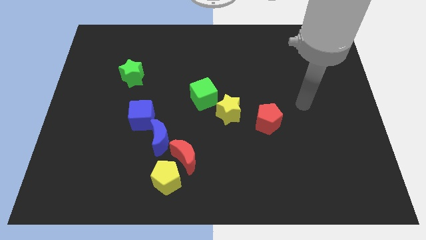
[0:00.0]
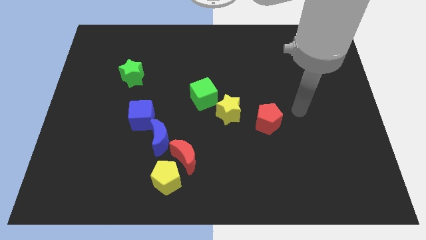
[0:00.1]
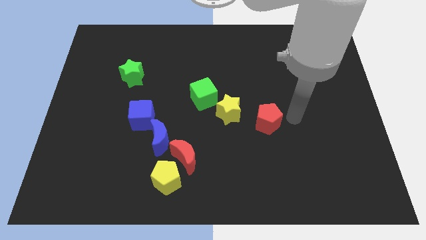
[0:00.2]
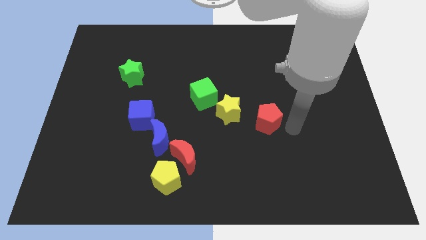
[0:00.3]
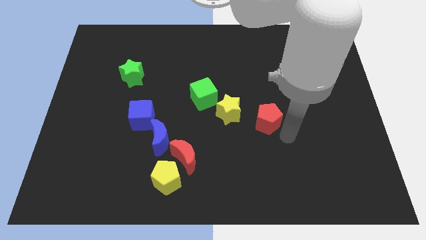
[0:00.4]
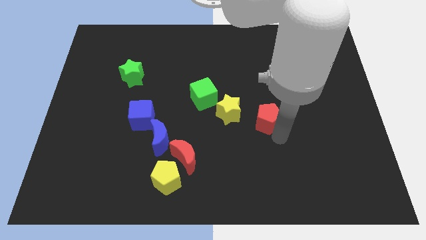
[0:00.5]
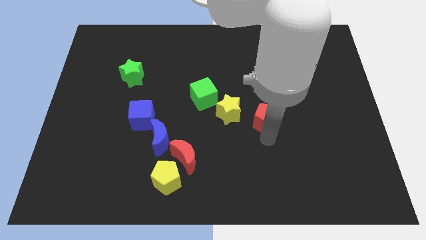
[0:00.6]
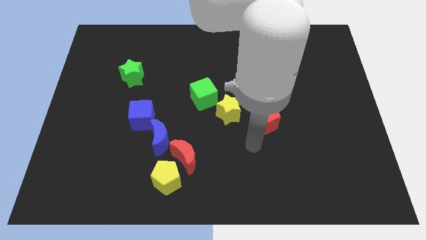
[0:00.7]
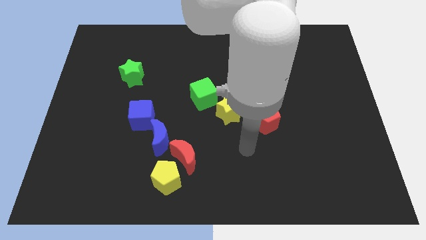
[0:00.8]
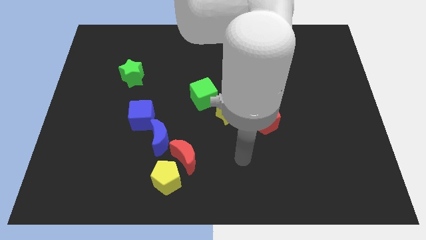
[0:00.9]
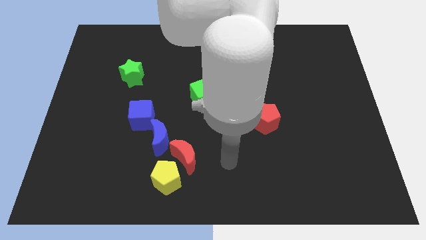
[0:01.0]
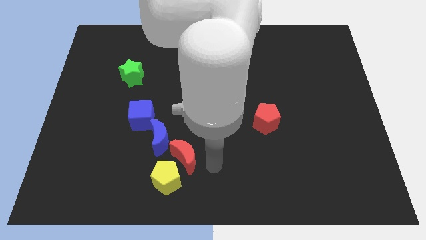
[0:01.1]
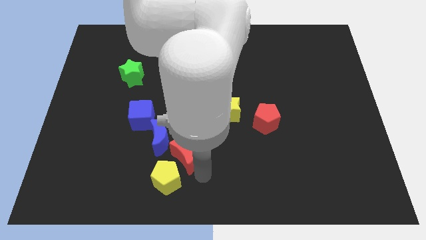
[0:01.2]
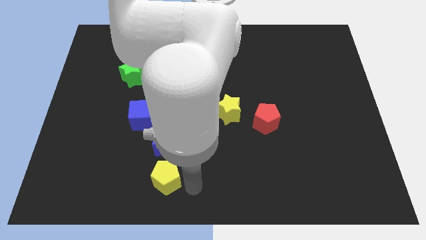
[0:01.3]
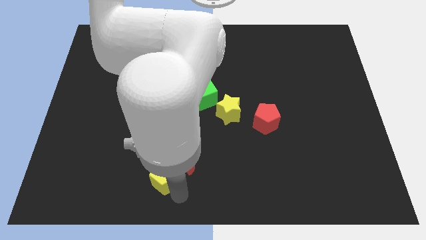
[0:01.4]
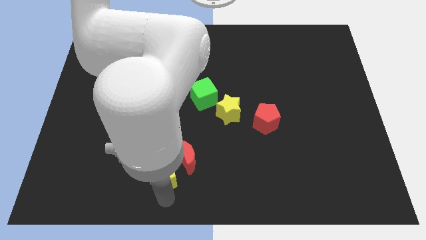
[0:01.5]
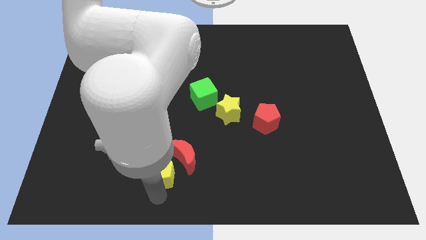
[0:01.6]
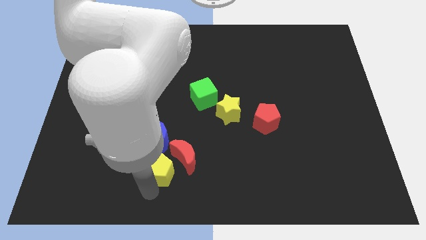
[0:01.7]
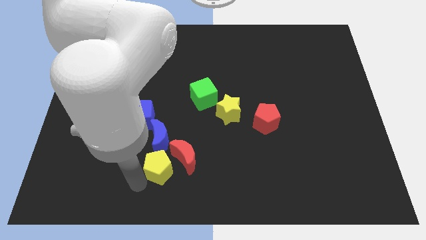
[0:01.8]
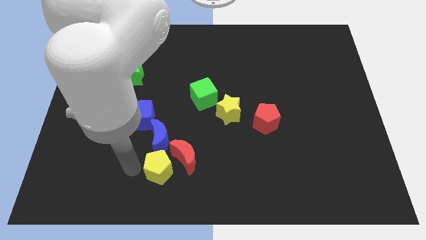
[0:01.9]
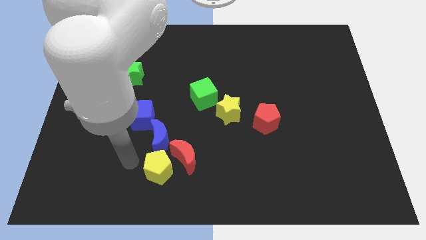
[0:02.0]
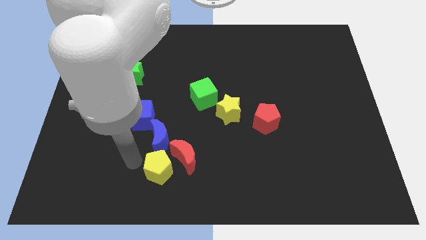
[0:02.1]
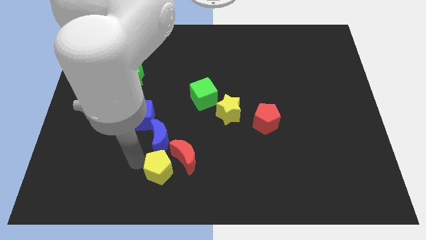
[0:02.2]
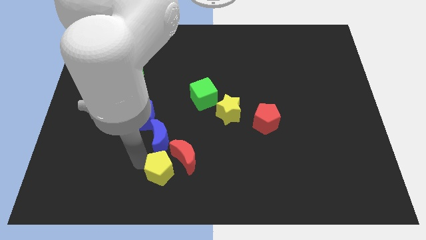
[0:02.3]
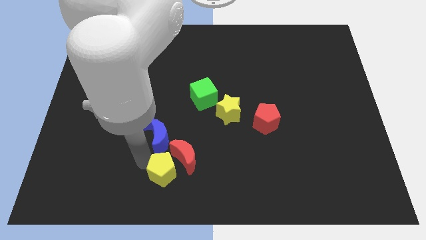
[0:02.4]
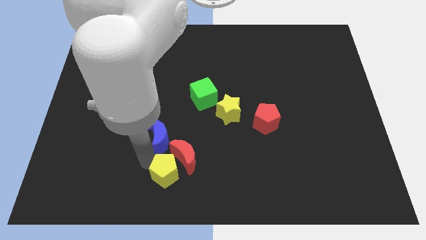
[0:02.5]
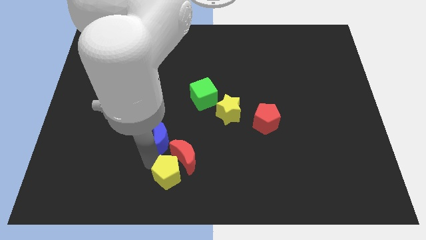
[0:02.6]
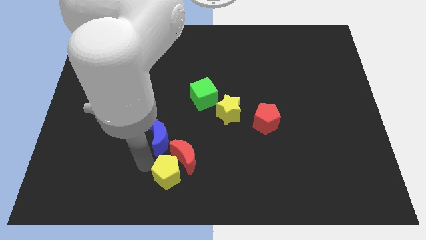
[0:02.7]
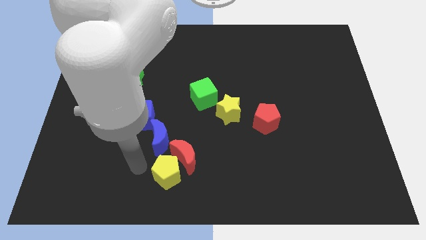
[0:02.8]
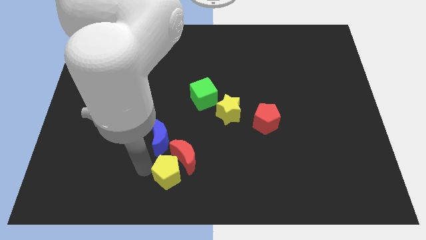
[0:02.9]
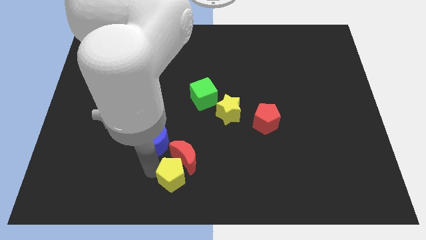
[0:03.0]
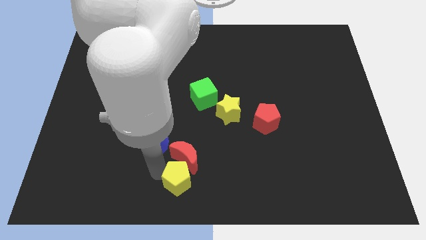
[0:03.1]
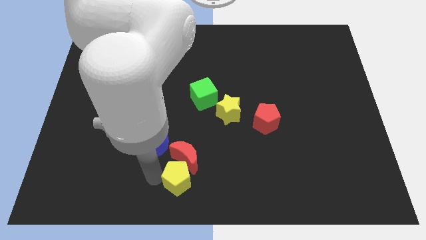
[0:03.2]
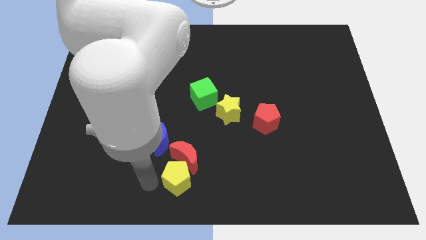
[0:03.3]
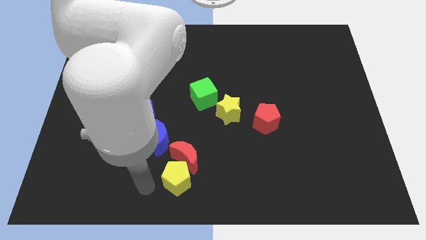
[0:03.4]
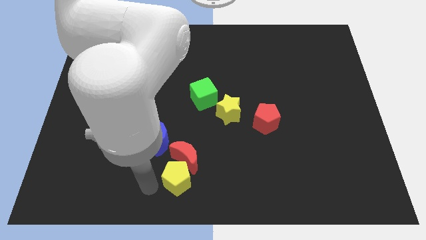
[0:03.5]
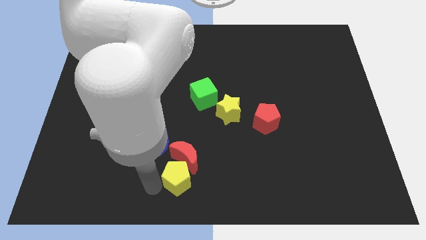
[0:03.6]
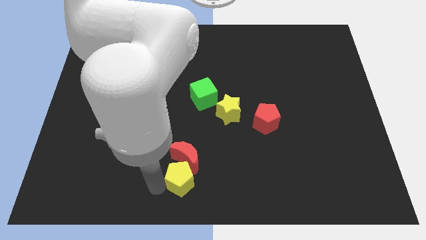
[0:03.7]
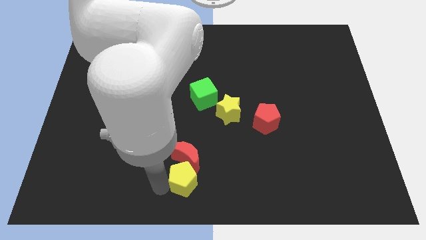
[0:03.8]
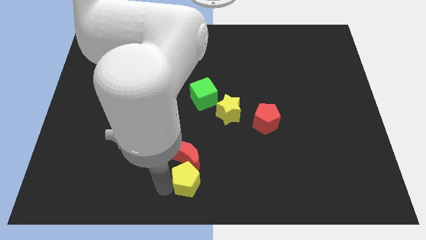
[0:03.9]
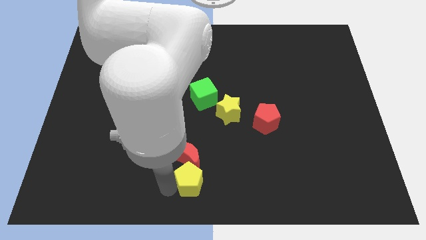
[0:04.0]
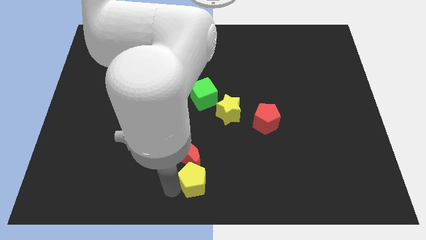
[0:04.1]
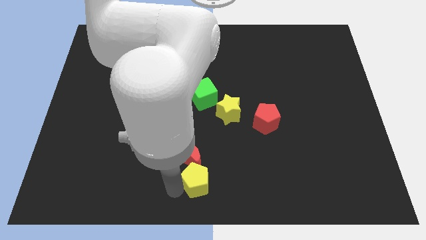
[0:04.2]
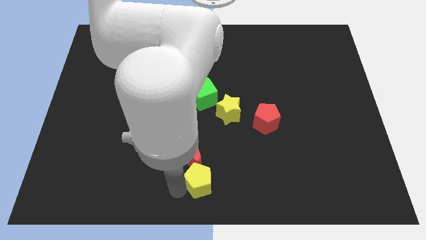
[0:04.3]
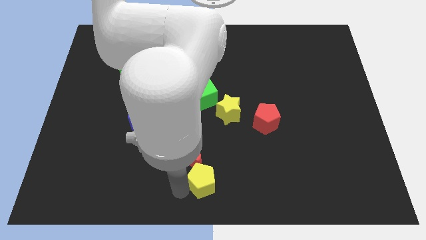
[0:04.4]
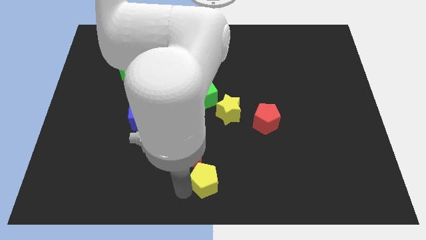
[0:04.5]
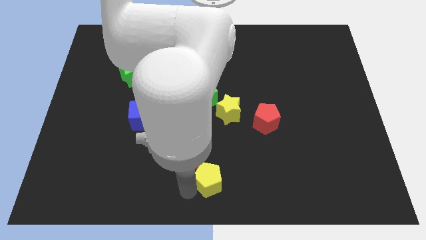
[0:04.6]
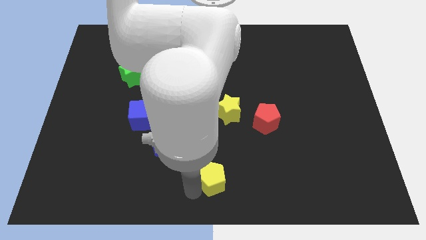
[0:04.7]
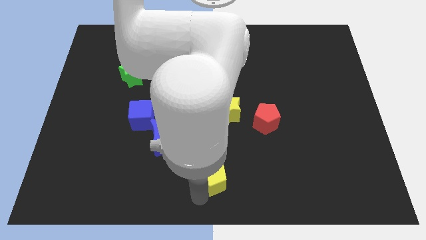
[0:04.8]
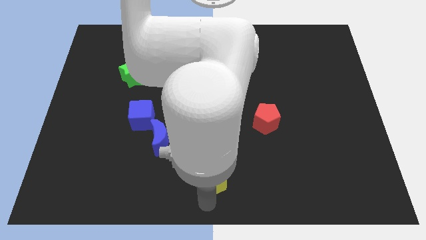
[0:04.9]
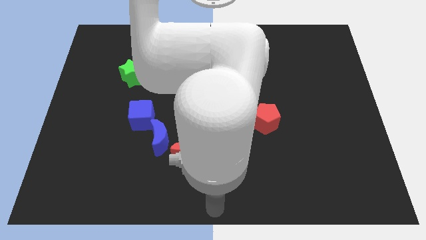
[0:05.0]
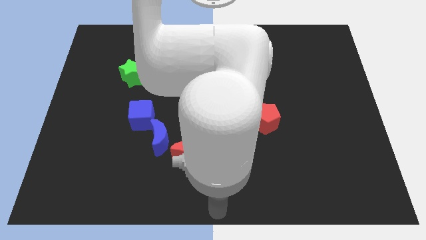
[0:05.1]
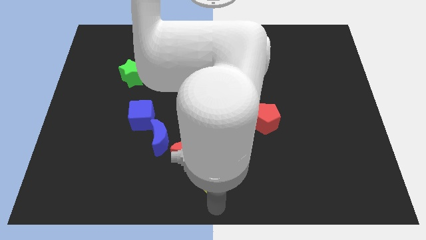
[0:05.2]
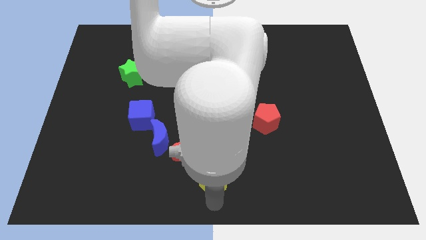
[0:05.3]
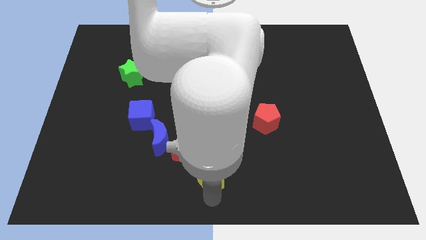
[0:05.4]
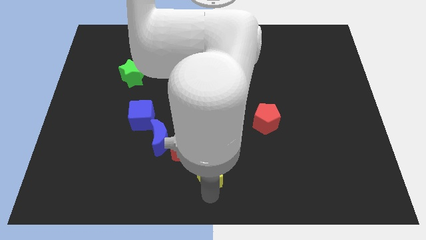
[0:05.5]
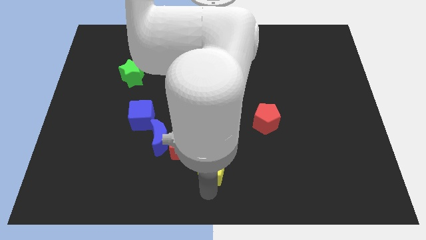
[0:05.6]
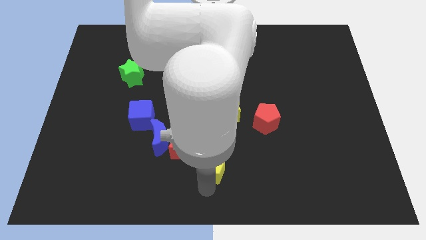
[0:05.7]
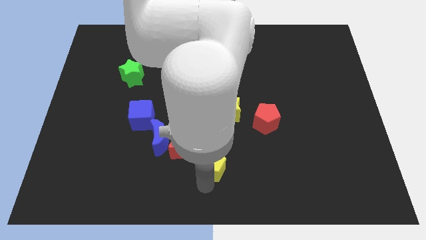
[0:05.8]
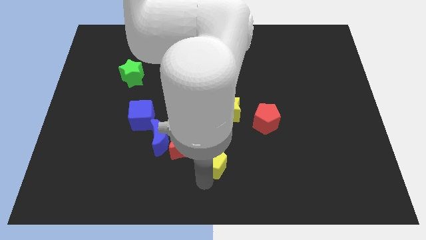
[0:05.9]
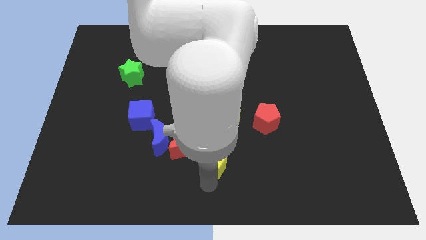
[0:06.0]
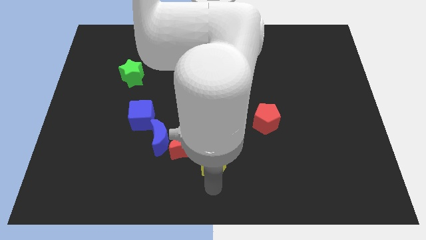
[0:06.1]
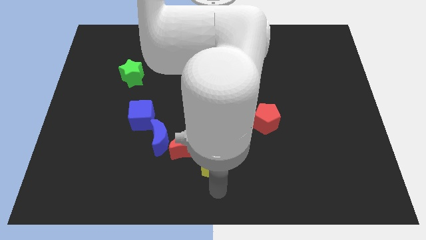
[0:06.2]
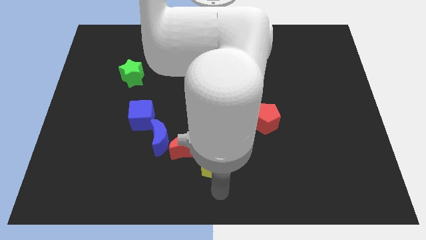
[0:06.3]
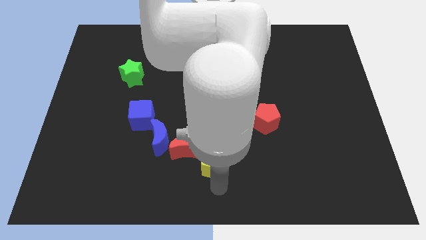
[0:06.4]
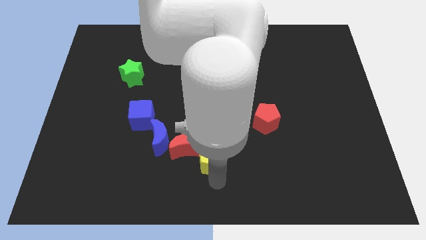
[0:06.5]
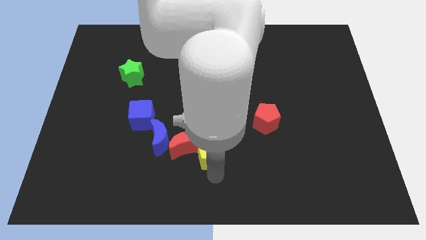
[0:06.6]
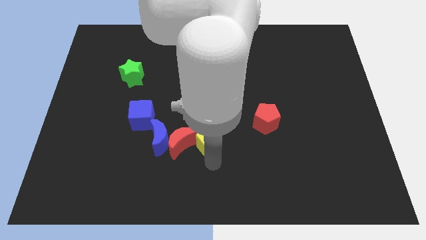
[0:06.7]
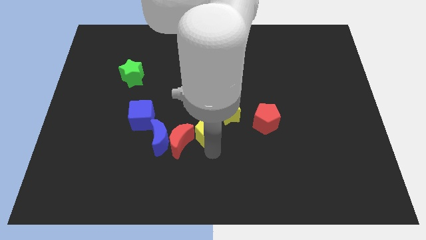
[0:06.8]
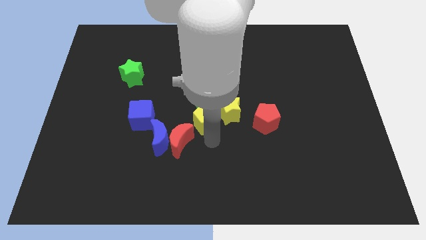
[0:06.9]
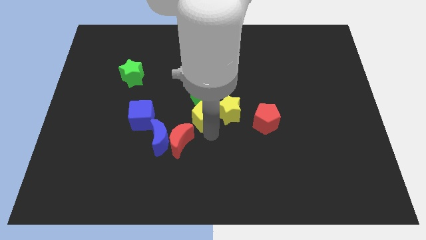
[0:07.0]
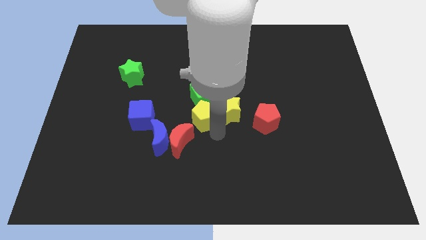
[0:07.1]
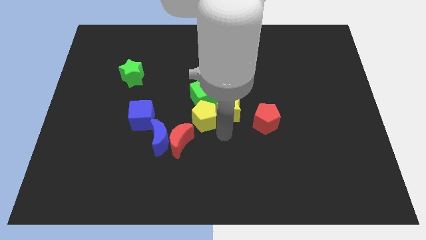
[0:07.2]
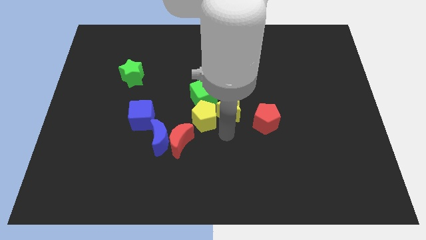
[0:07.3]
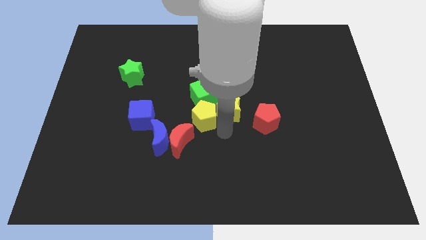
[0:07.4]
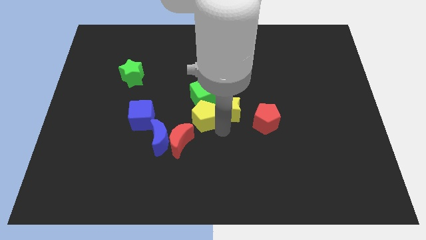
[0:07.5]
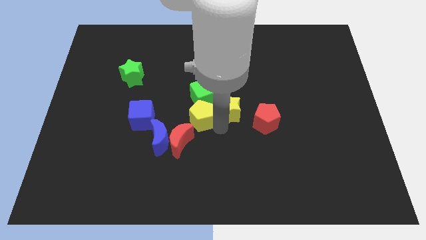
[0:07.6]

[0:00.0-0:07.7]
move the yellow pentagon to the top side of the red moon

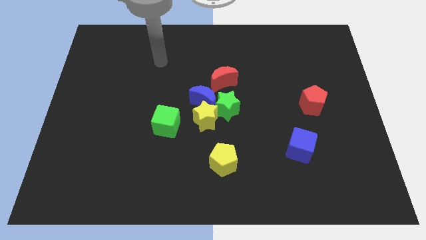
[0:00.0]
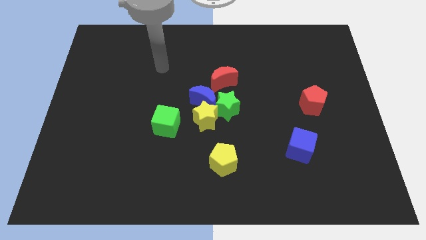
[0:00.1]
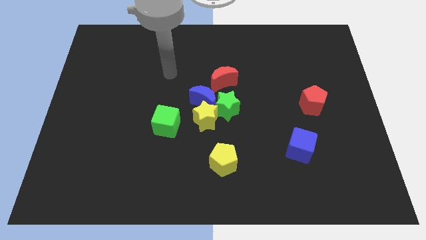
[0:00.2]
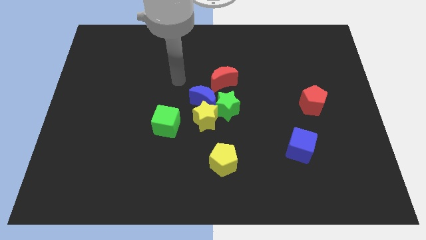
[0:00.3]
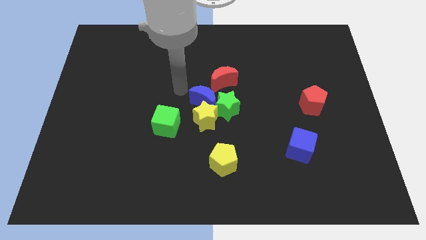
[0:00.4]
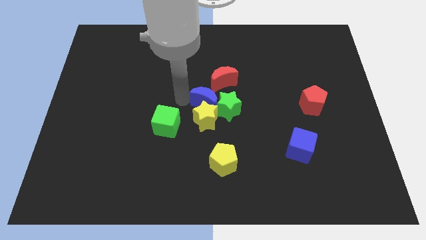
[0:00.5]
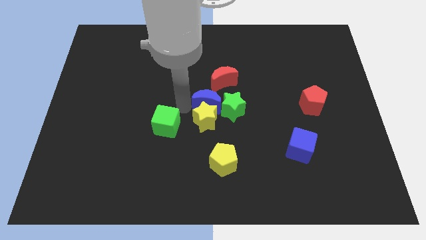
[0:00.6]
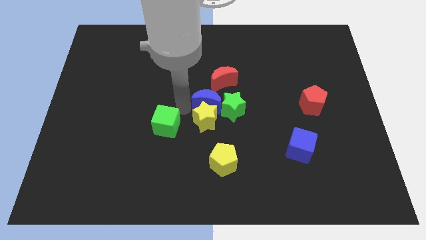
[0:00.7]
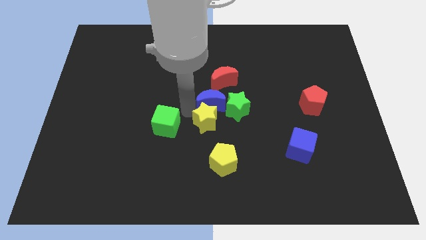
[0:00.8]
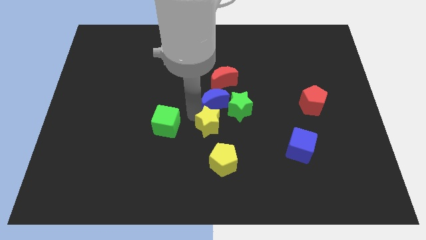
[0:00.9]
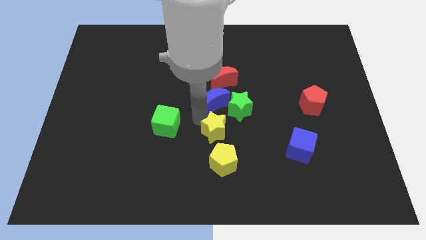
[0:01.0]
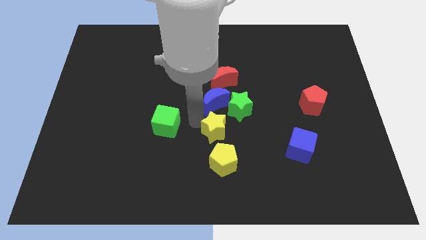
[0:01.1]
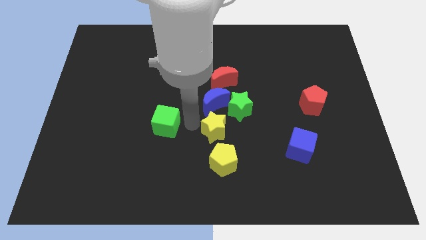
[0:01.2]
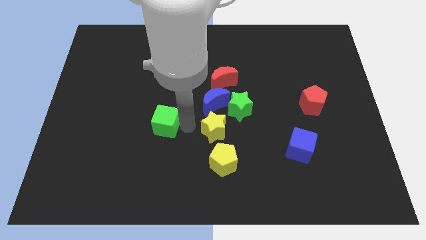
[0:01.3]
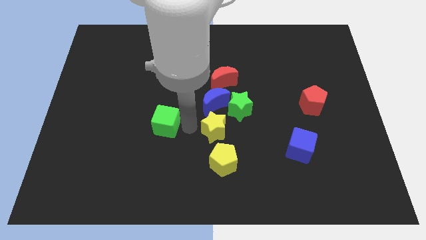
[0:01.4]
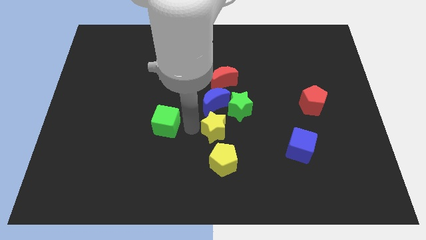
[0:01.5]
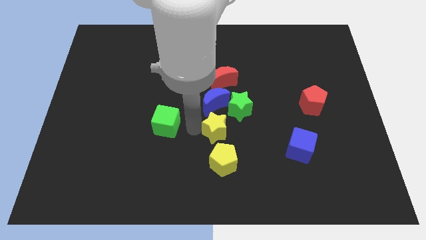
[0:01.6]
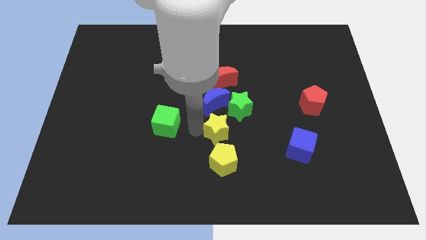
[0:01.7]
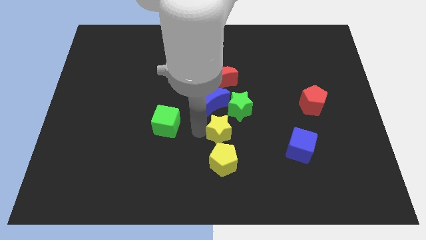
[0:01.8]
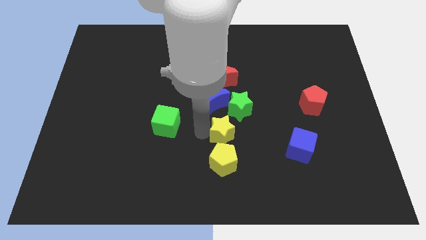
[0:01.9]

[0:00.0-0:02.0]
move the yellow star to the top right side of the yellow pentagon
